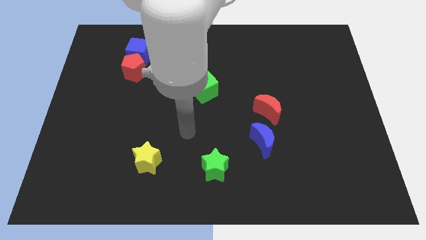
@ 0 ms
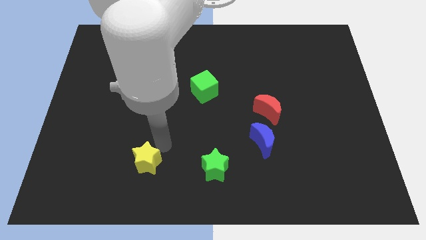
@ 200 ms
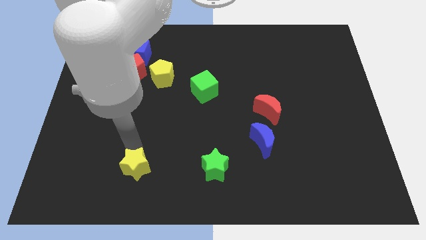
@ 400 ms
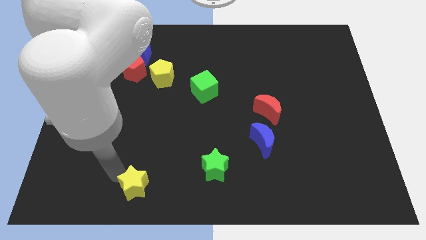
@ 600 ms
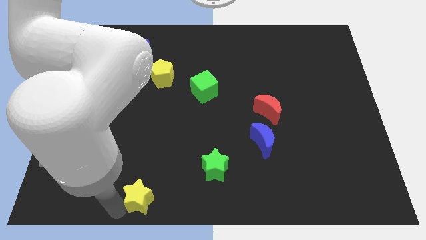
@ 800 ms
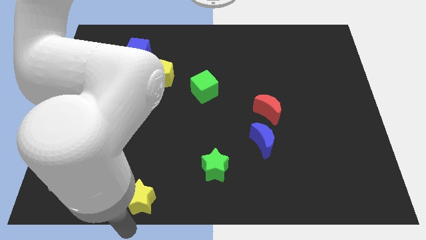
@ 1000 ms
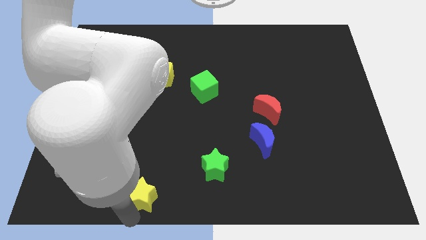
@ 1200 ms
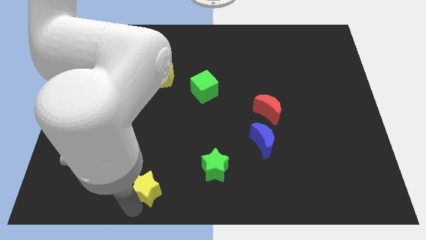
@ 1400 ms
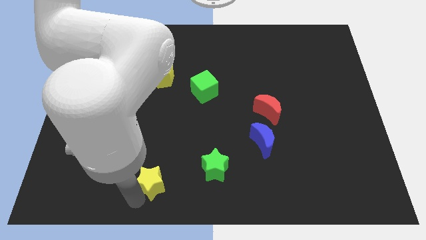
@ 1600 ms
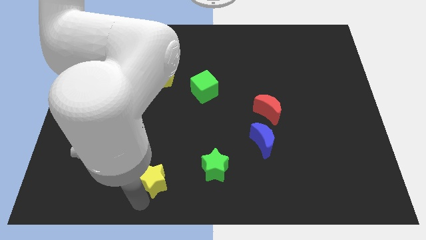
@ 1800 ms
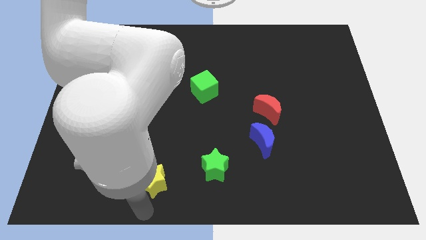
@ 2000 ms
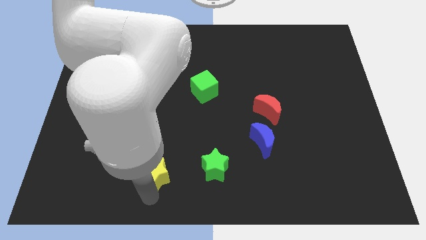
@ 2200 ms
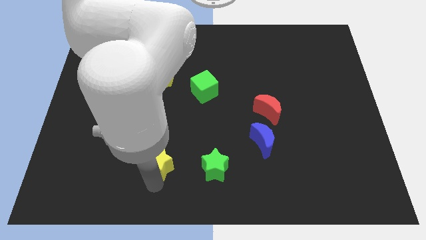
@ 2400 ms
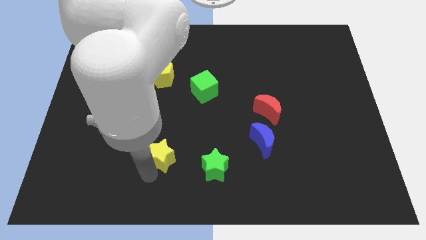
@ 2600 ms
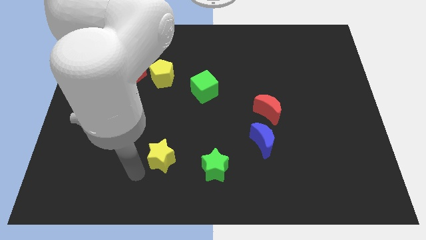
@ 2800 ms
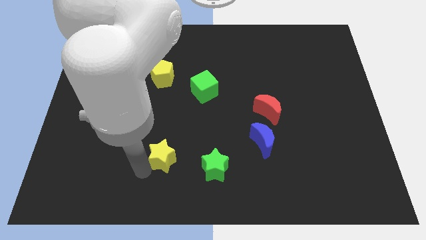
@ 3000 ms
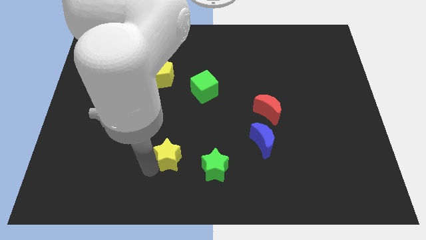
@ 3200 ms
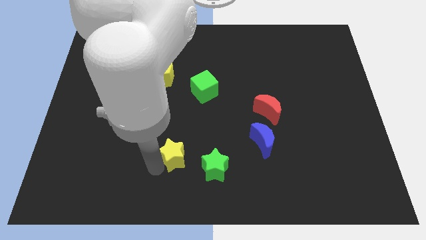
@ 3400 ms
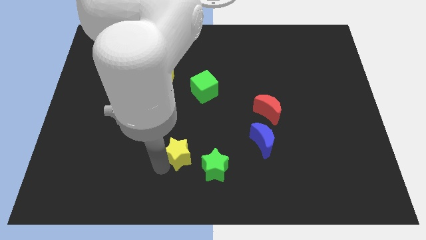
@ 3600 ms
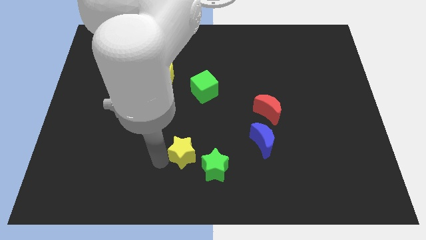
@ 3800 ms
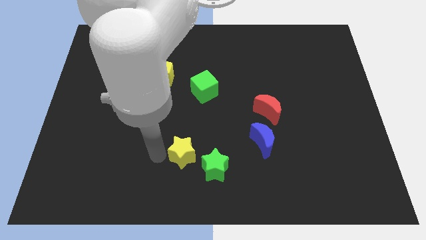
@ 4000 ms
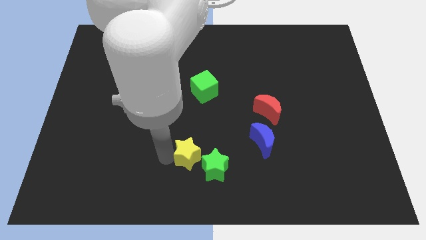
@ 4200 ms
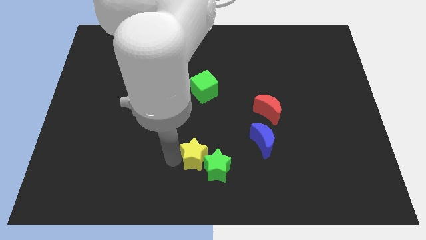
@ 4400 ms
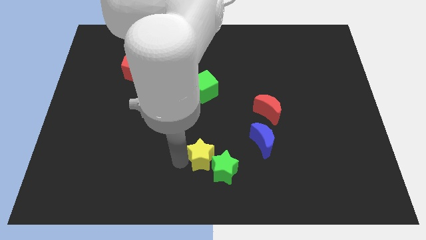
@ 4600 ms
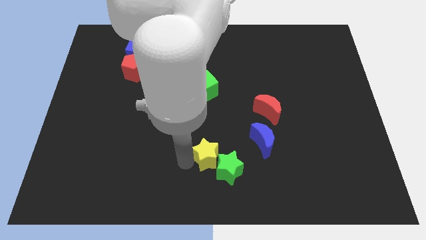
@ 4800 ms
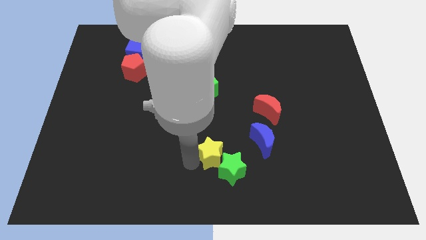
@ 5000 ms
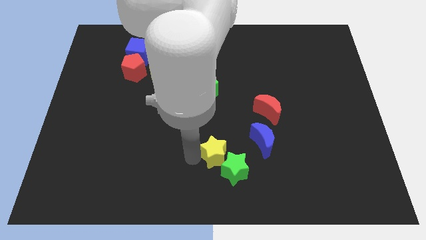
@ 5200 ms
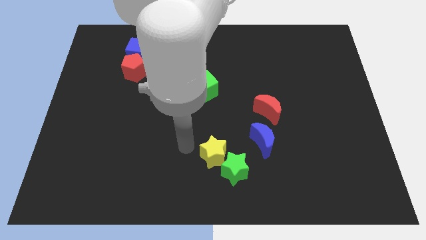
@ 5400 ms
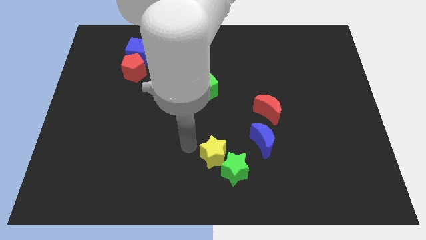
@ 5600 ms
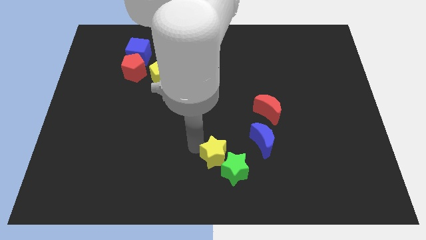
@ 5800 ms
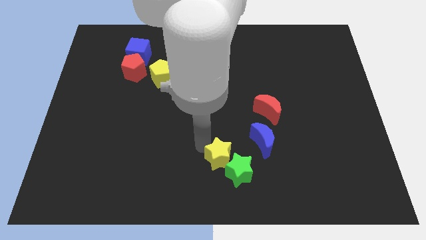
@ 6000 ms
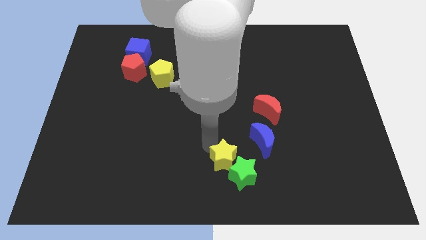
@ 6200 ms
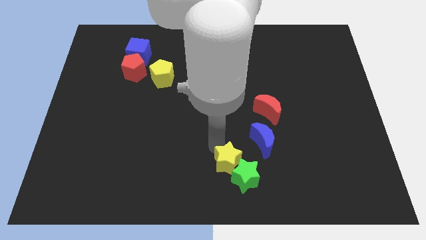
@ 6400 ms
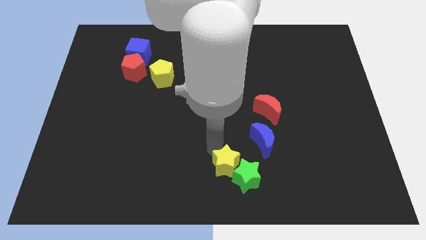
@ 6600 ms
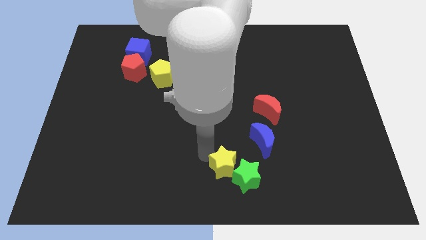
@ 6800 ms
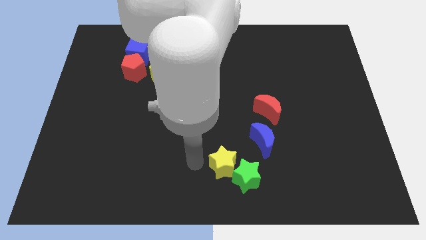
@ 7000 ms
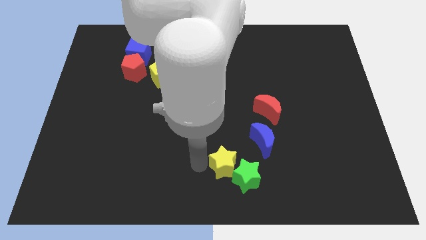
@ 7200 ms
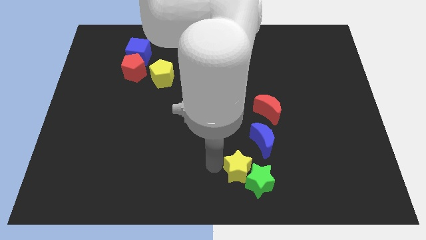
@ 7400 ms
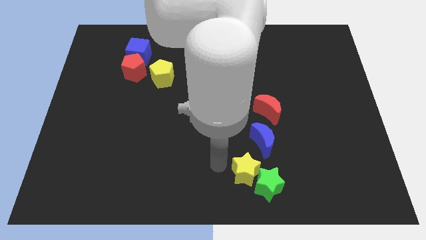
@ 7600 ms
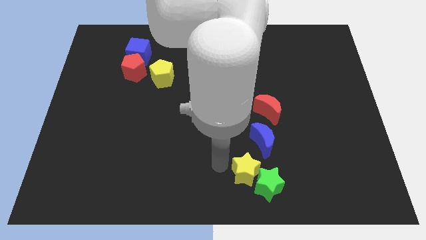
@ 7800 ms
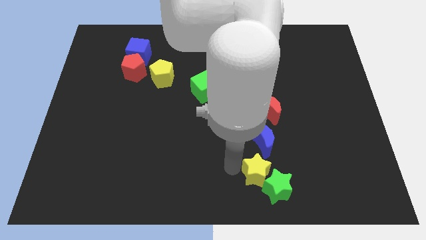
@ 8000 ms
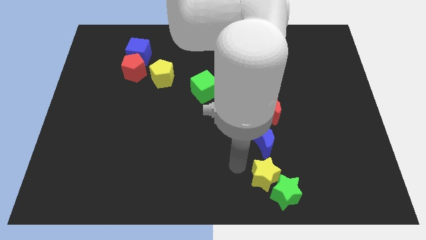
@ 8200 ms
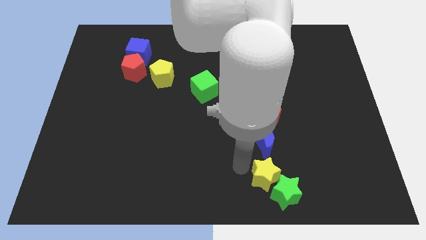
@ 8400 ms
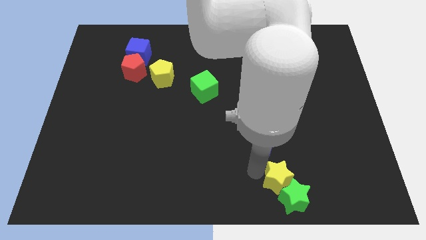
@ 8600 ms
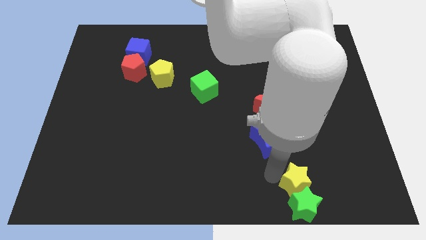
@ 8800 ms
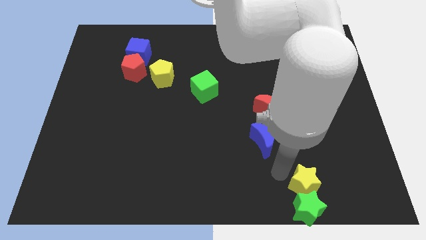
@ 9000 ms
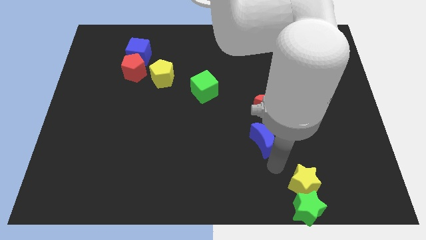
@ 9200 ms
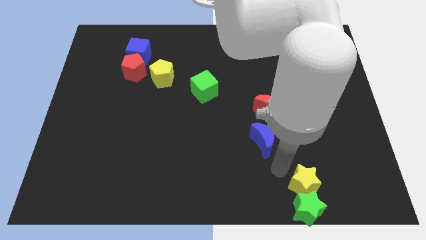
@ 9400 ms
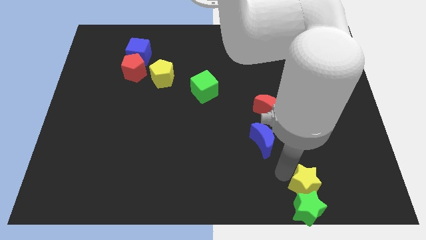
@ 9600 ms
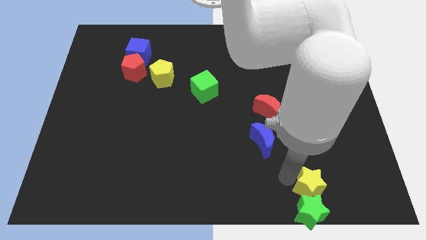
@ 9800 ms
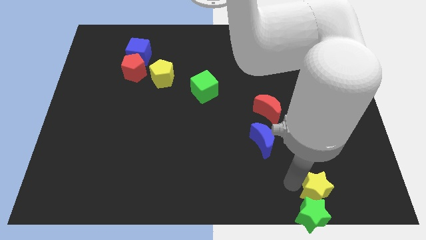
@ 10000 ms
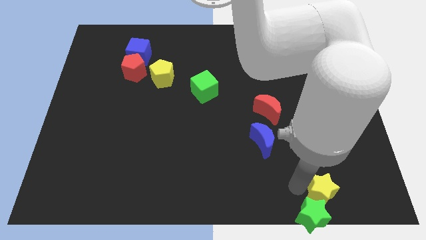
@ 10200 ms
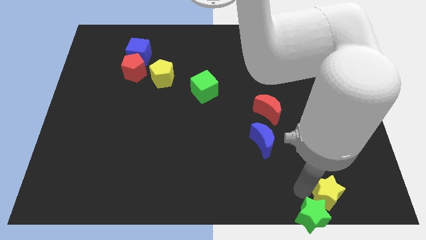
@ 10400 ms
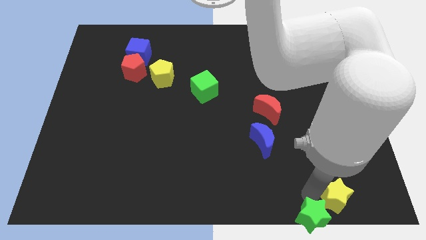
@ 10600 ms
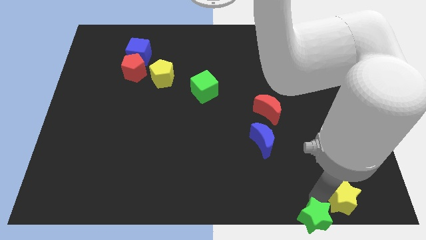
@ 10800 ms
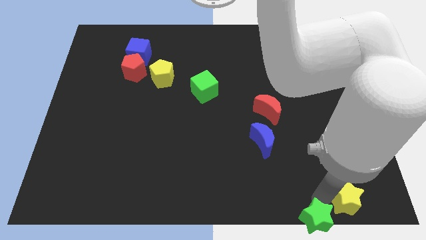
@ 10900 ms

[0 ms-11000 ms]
put the yellow star to the bottom right corner

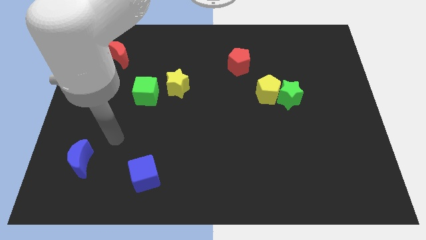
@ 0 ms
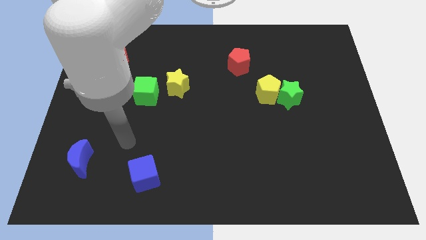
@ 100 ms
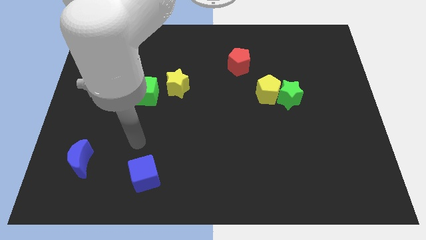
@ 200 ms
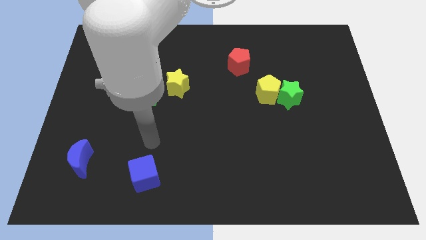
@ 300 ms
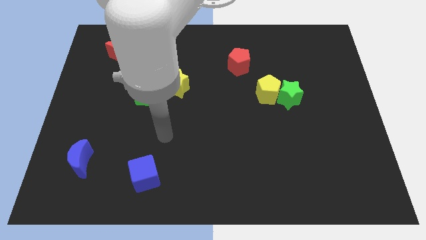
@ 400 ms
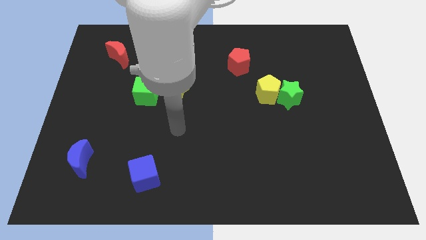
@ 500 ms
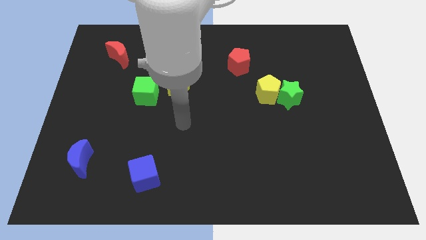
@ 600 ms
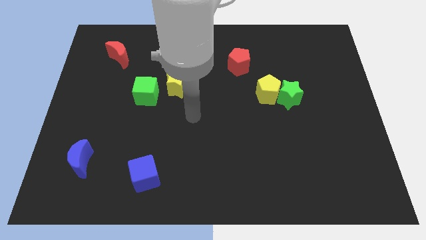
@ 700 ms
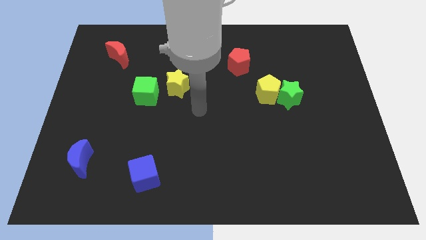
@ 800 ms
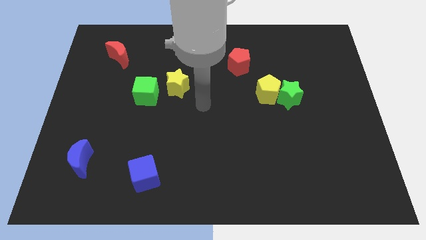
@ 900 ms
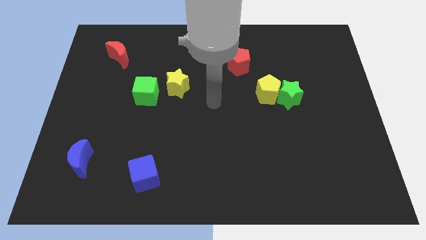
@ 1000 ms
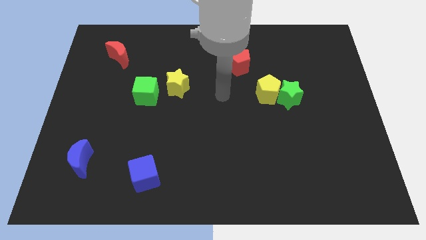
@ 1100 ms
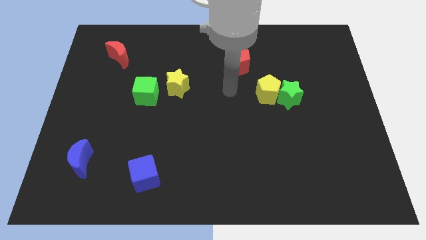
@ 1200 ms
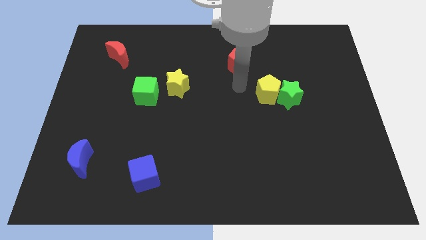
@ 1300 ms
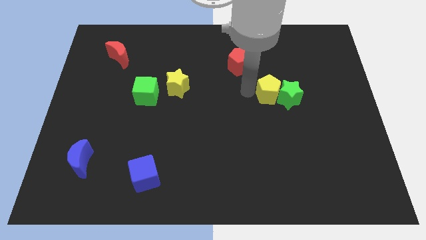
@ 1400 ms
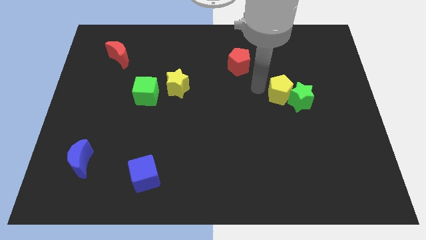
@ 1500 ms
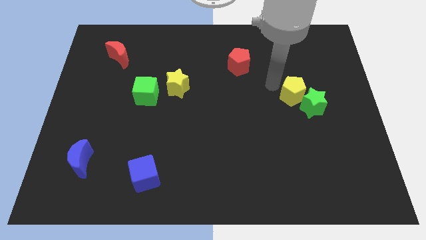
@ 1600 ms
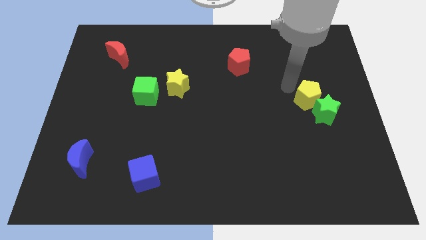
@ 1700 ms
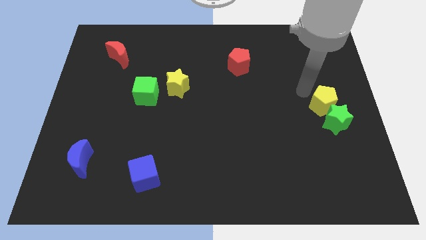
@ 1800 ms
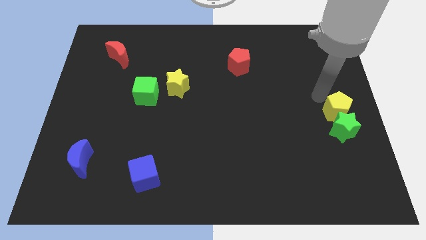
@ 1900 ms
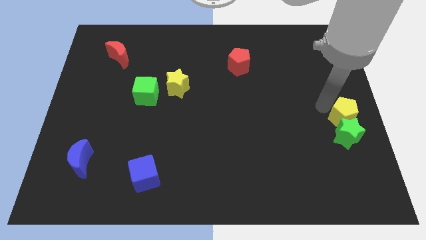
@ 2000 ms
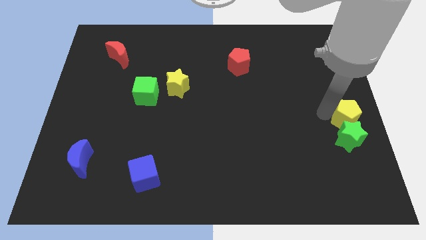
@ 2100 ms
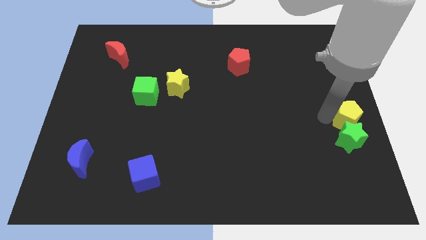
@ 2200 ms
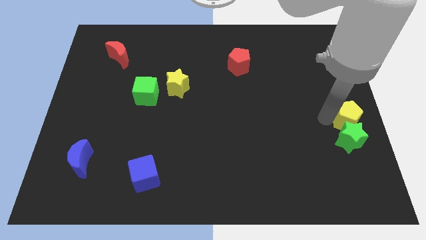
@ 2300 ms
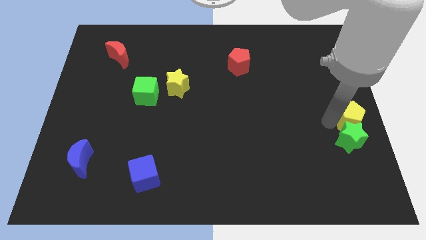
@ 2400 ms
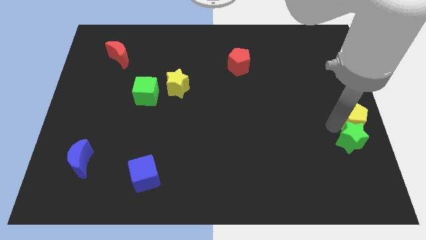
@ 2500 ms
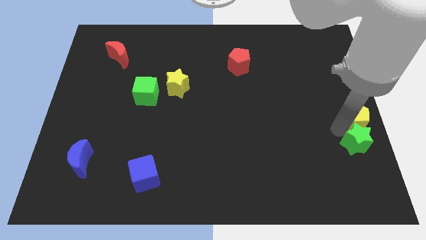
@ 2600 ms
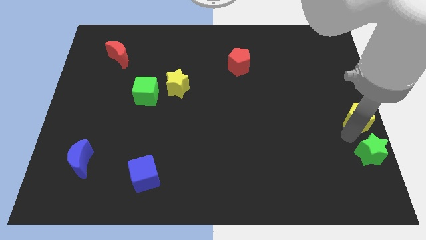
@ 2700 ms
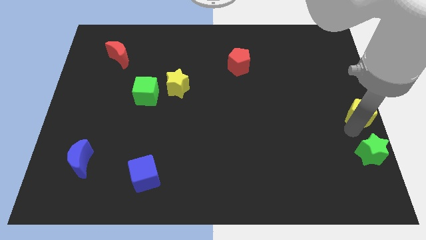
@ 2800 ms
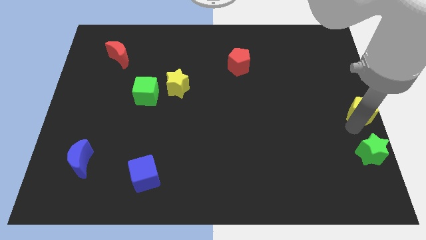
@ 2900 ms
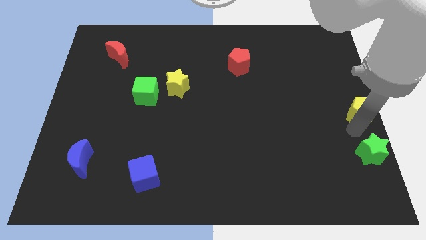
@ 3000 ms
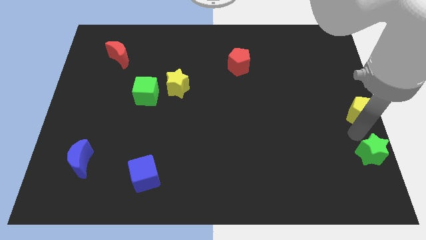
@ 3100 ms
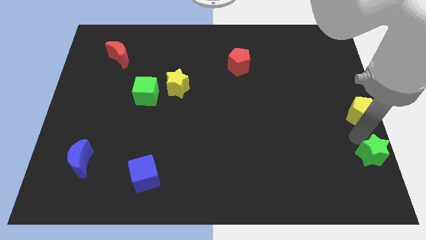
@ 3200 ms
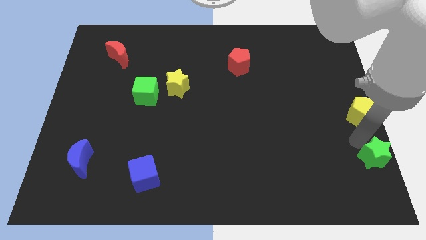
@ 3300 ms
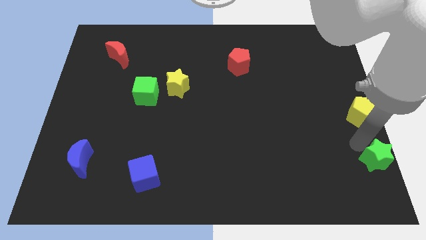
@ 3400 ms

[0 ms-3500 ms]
slide the green star to the bottom right
